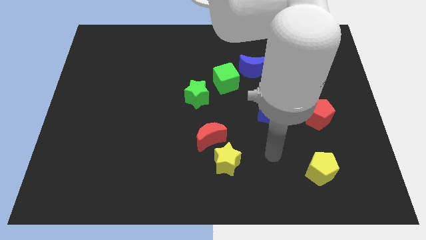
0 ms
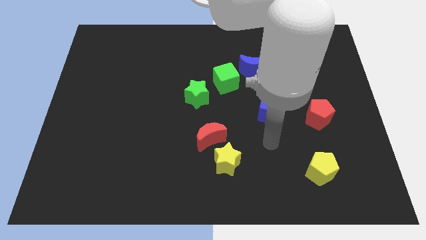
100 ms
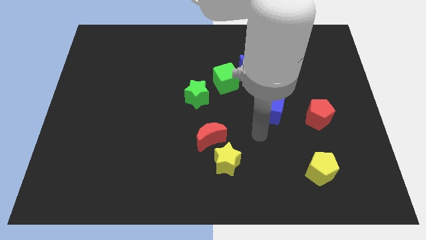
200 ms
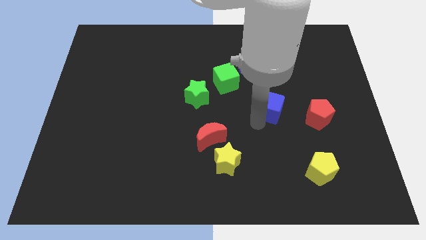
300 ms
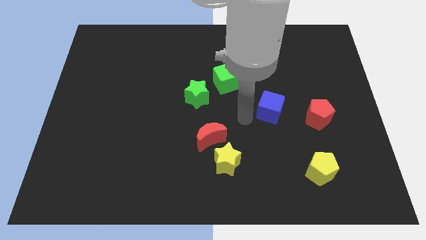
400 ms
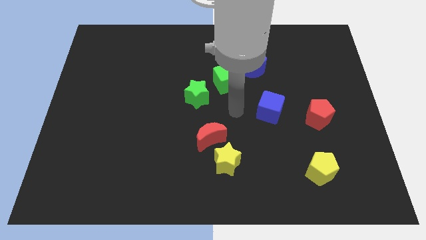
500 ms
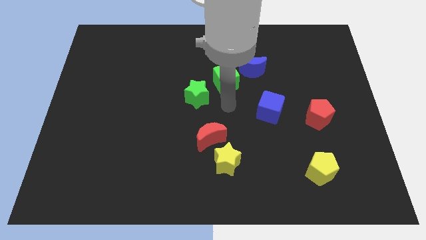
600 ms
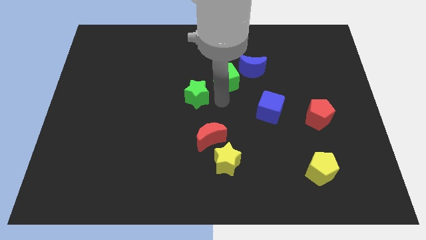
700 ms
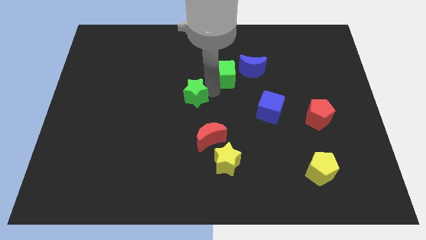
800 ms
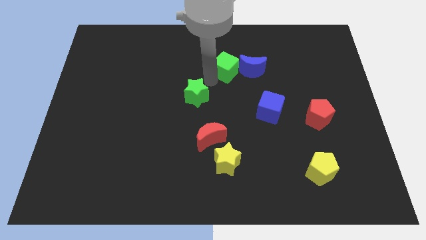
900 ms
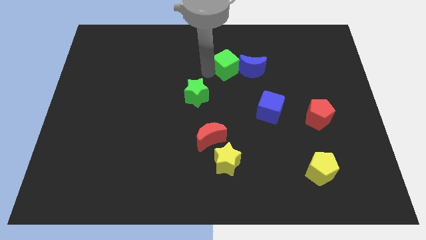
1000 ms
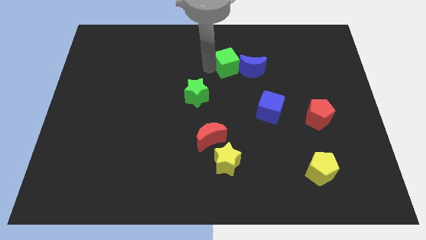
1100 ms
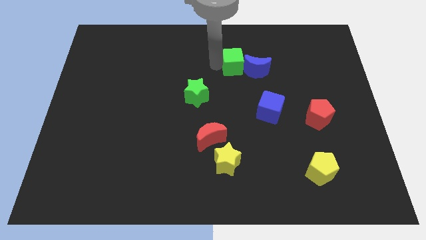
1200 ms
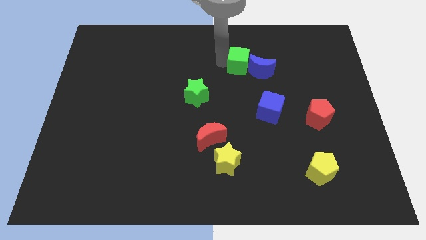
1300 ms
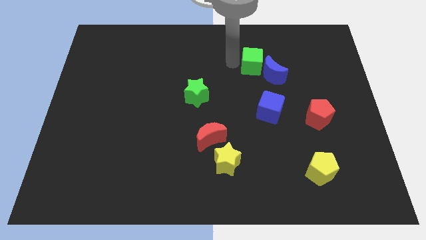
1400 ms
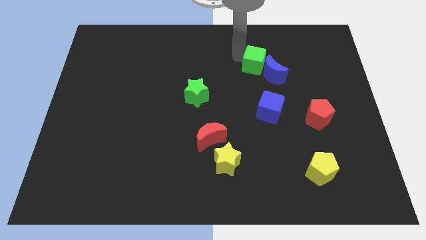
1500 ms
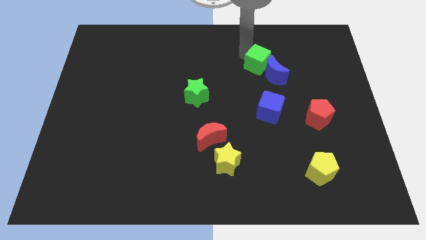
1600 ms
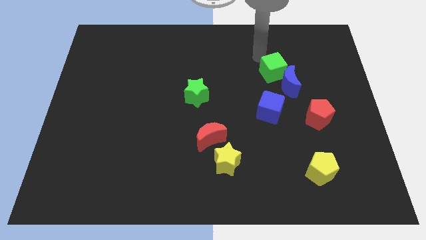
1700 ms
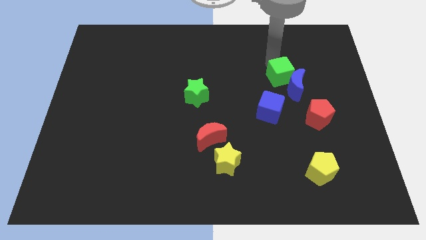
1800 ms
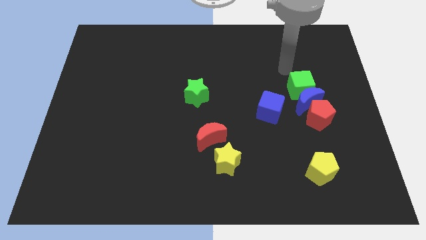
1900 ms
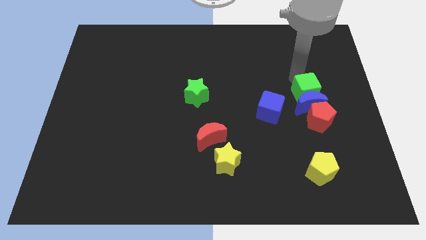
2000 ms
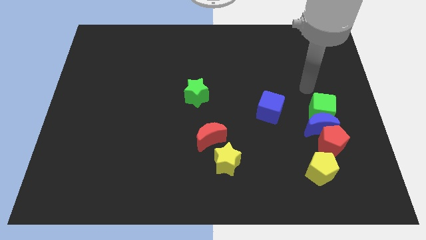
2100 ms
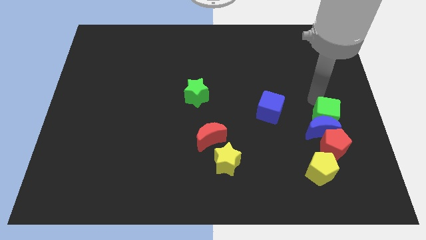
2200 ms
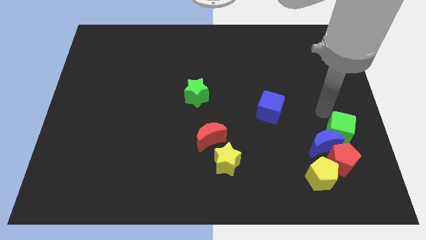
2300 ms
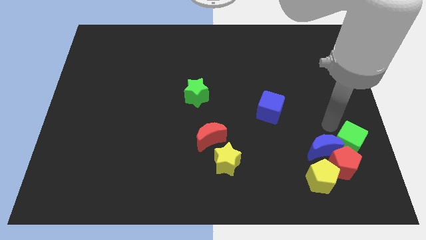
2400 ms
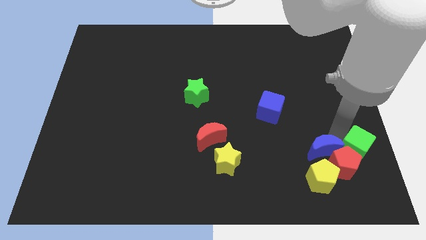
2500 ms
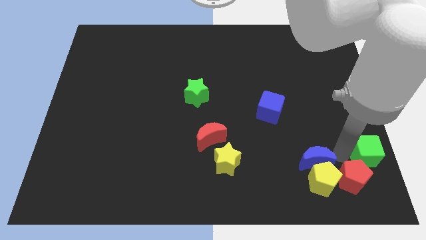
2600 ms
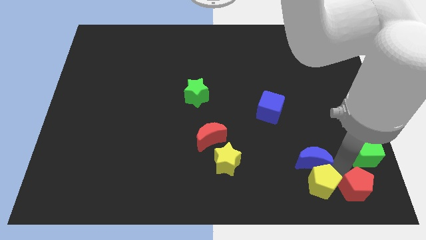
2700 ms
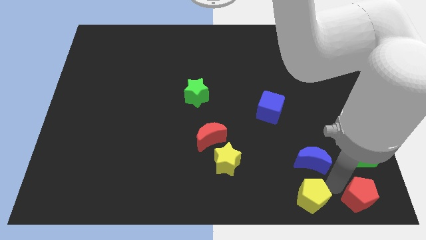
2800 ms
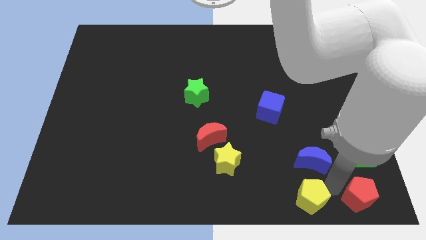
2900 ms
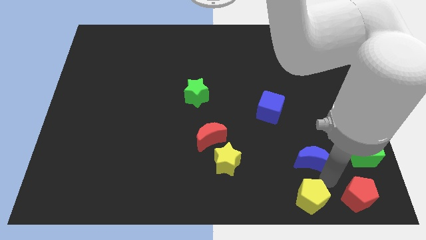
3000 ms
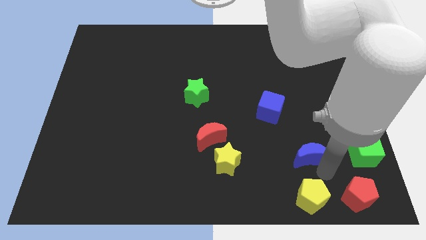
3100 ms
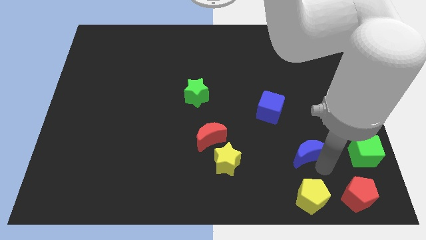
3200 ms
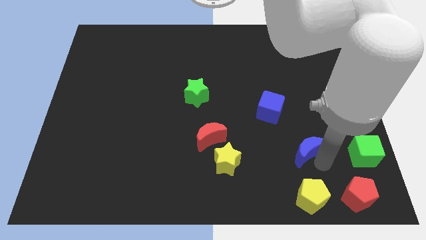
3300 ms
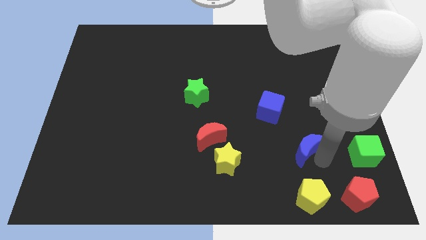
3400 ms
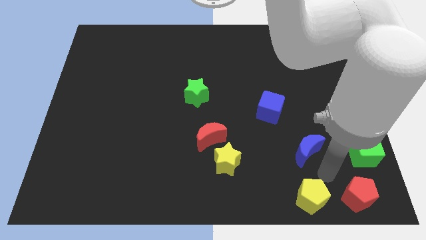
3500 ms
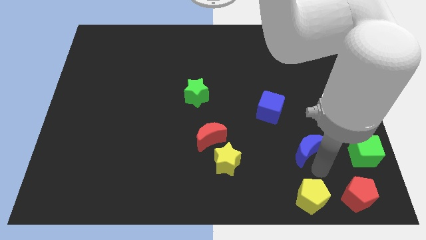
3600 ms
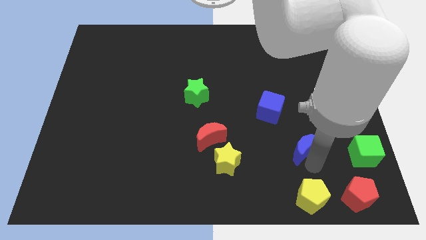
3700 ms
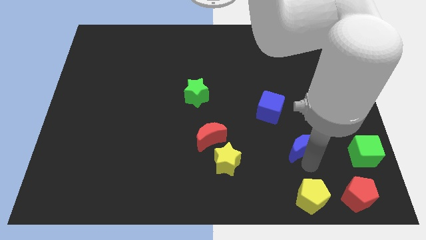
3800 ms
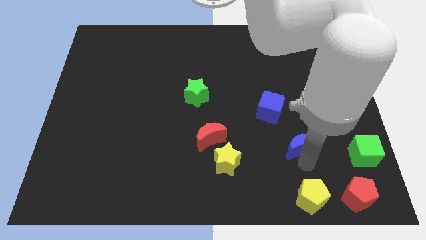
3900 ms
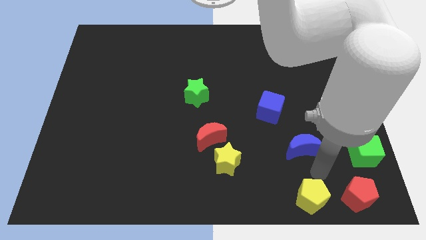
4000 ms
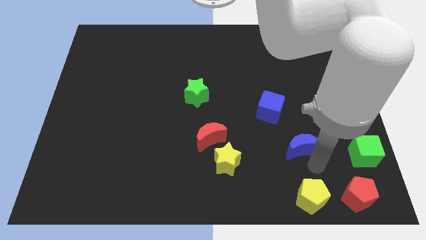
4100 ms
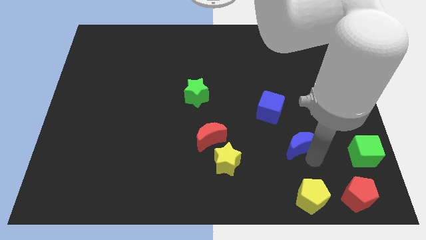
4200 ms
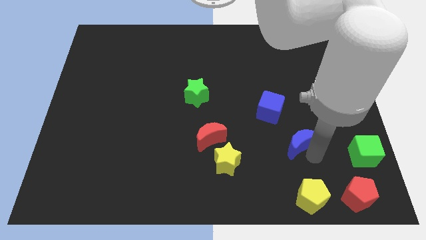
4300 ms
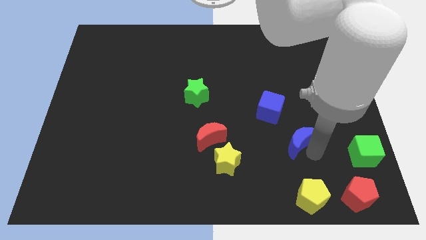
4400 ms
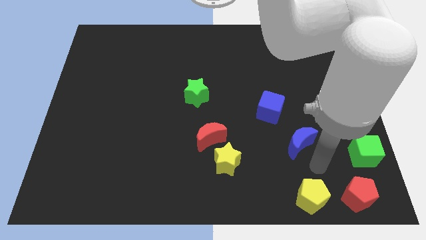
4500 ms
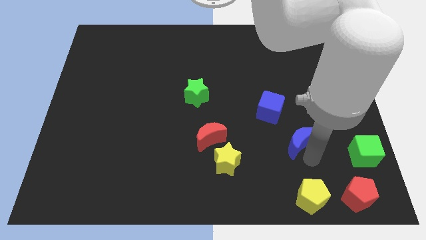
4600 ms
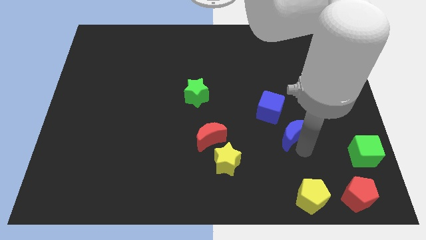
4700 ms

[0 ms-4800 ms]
put the blue moon to the bottom side of the blue cube

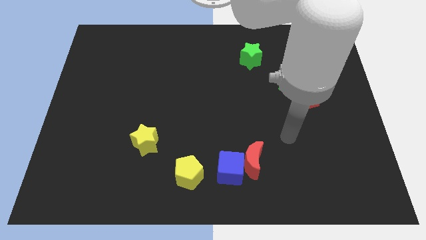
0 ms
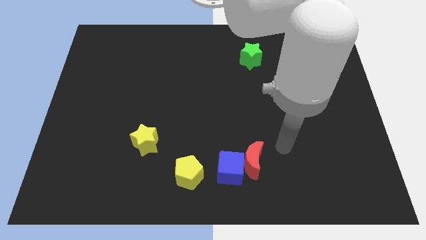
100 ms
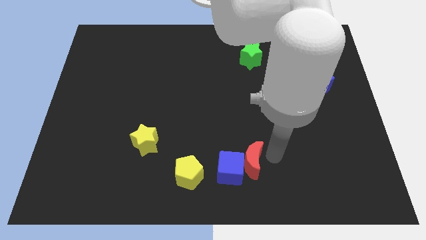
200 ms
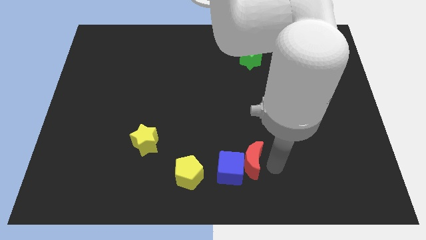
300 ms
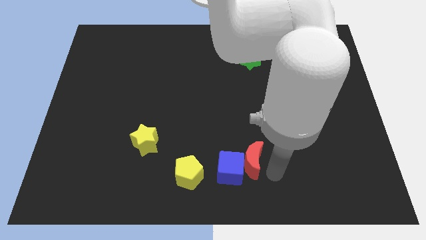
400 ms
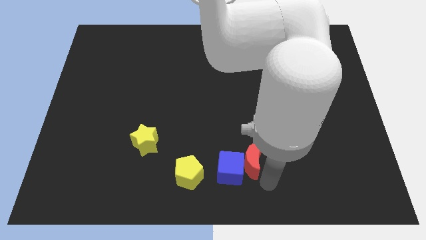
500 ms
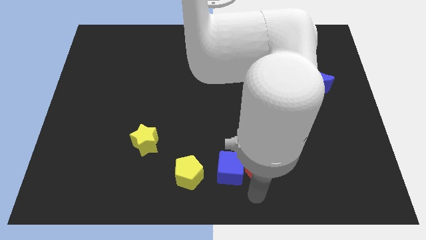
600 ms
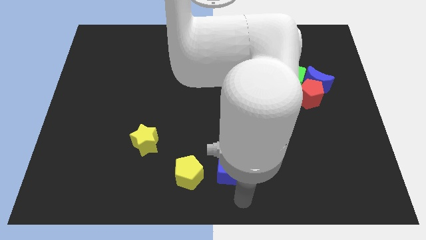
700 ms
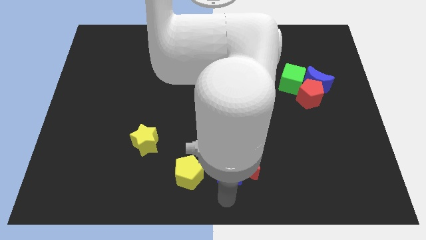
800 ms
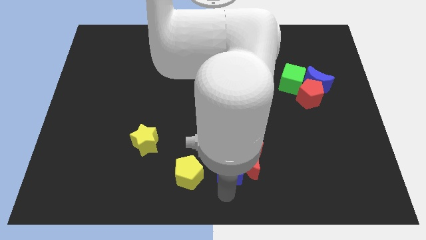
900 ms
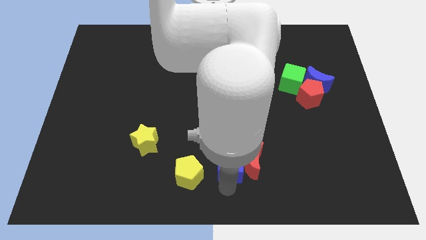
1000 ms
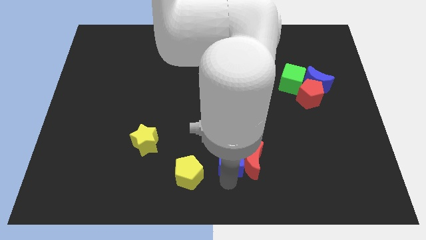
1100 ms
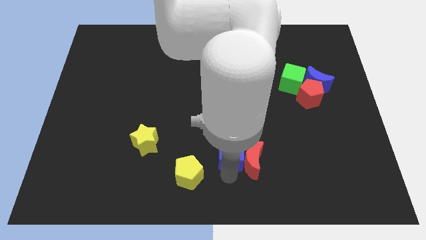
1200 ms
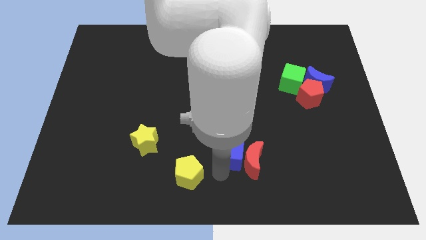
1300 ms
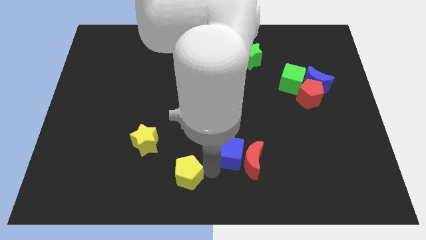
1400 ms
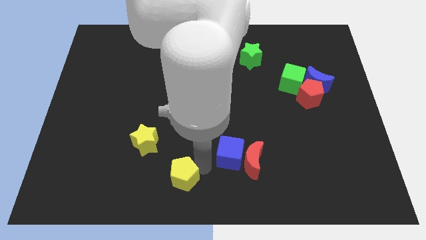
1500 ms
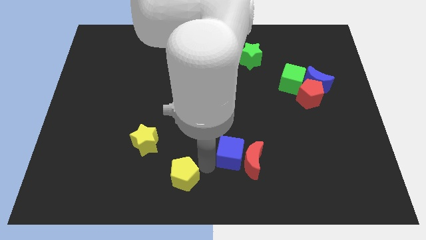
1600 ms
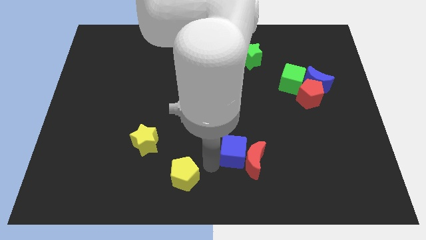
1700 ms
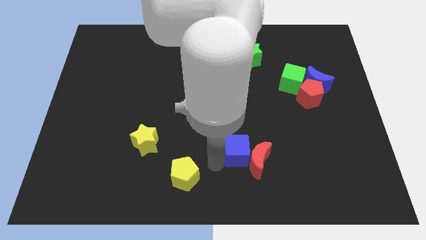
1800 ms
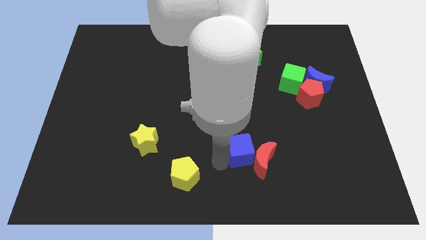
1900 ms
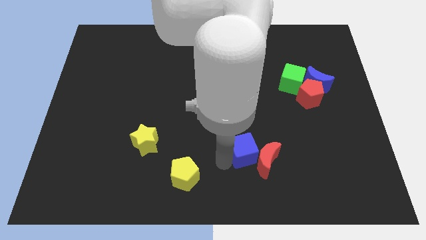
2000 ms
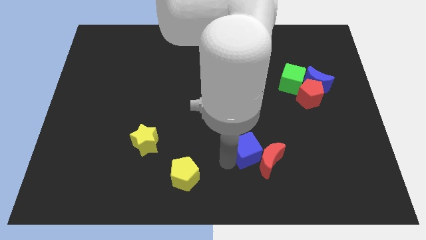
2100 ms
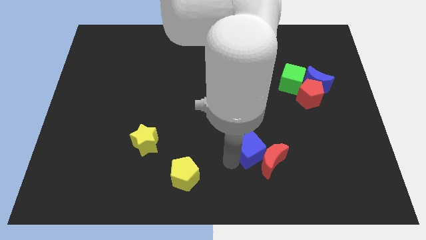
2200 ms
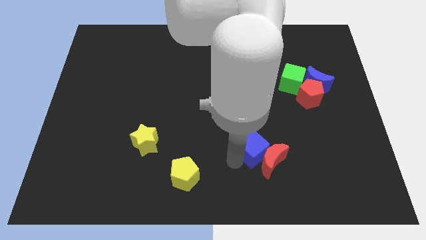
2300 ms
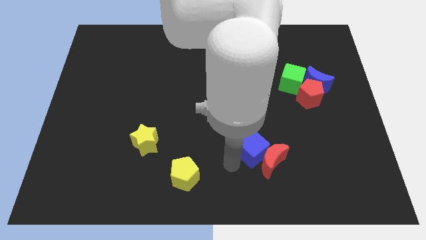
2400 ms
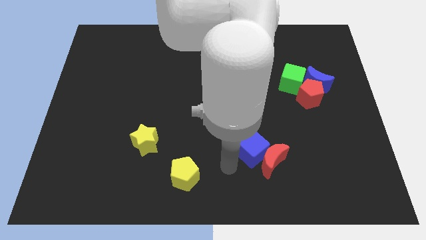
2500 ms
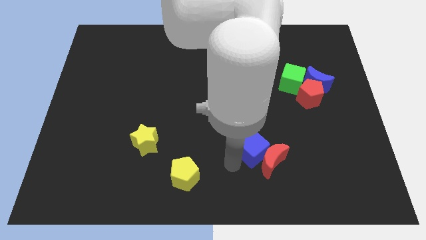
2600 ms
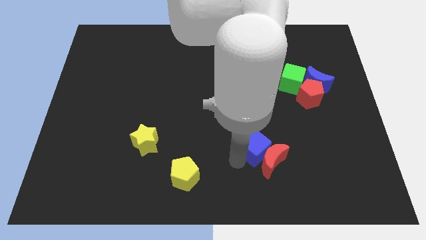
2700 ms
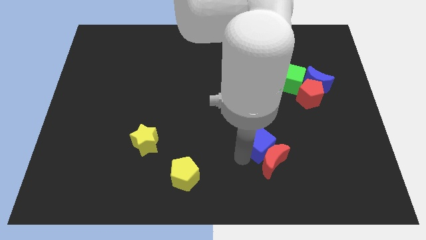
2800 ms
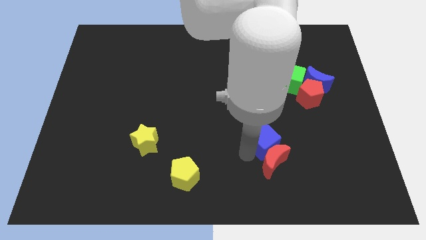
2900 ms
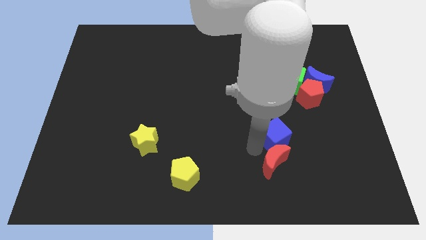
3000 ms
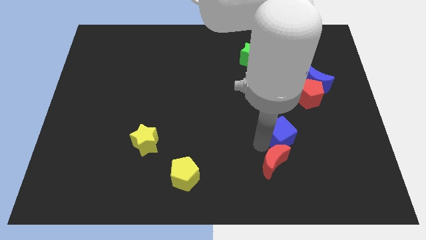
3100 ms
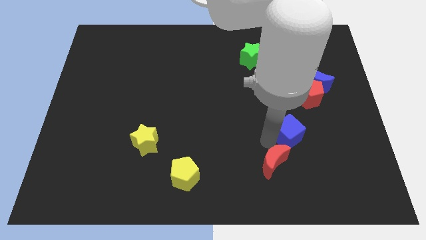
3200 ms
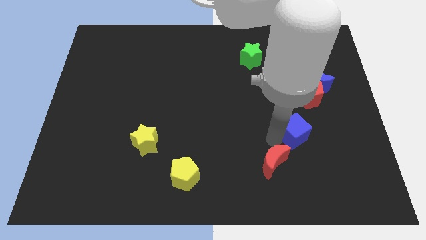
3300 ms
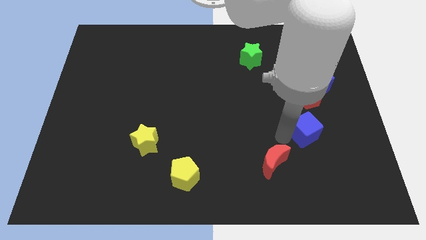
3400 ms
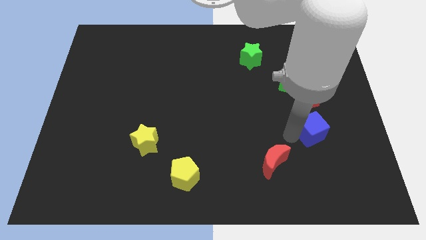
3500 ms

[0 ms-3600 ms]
put the blue cube to the bottom of the blue moon

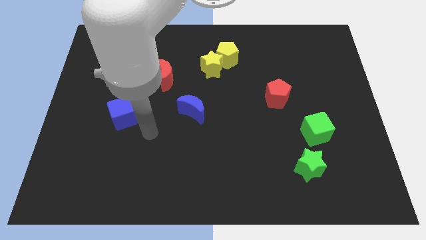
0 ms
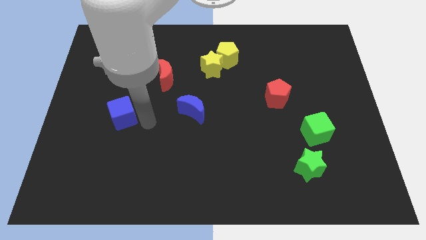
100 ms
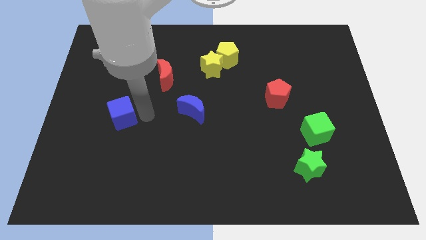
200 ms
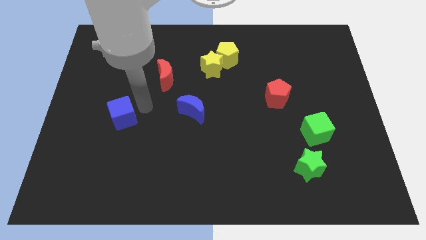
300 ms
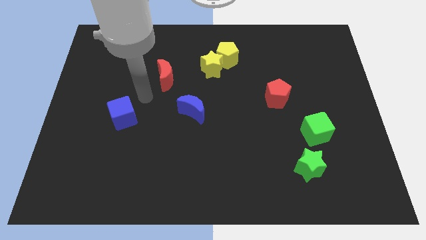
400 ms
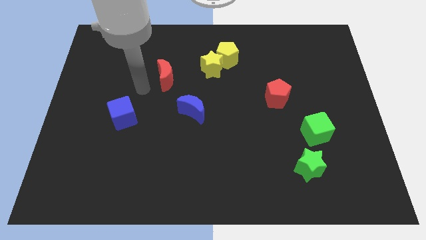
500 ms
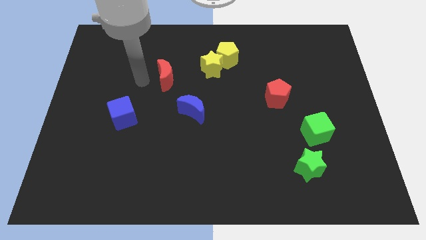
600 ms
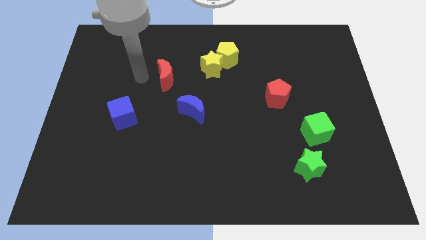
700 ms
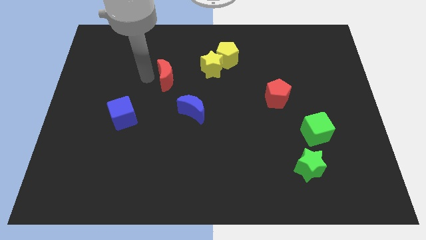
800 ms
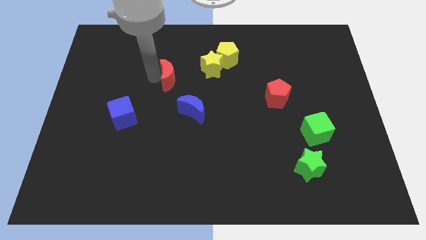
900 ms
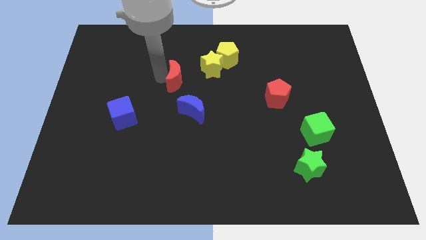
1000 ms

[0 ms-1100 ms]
put the red moon to the top of the blue moon
